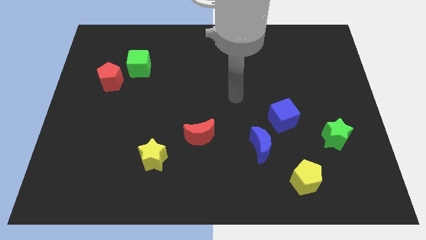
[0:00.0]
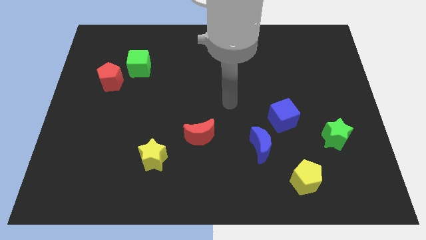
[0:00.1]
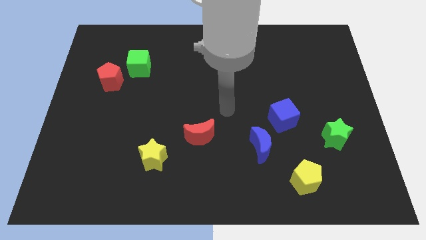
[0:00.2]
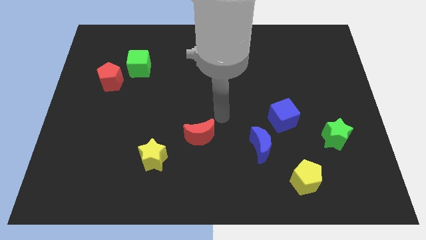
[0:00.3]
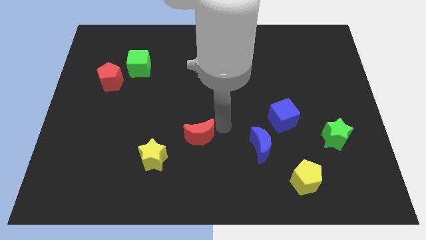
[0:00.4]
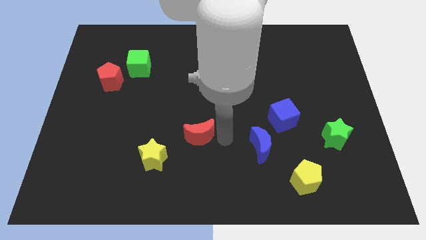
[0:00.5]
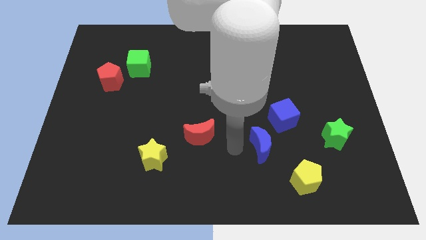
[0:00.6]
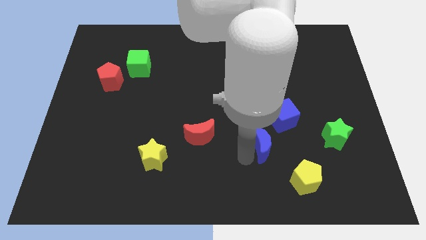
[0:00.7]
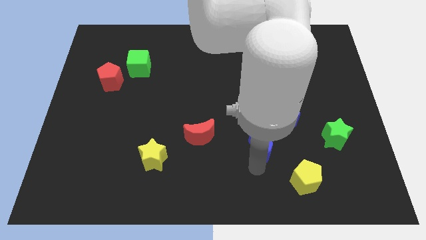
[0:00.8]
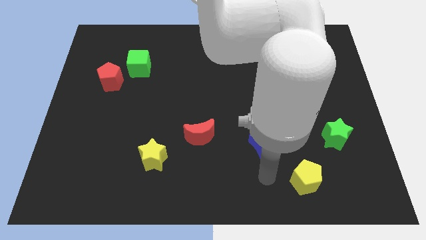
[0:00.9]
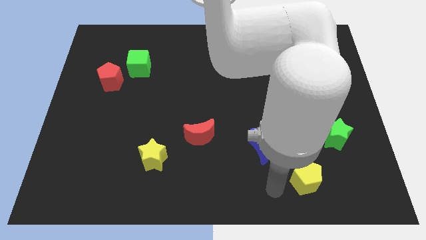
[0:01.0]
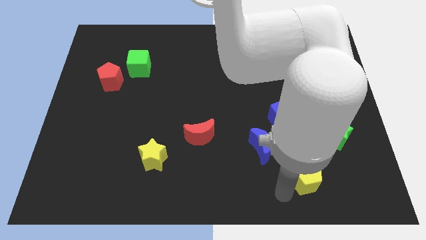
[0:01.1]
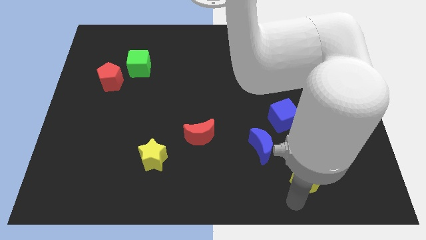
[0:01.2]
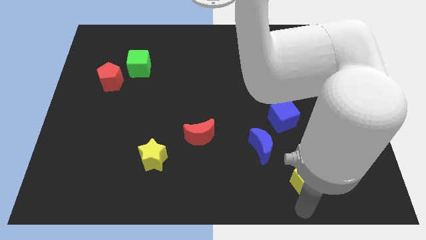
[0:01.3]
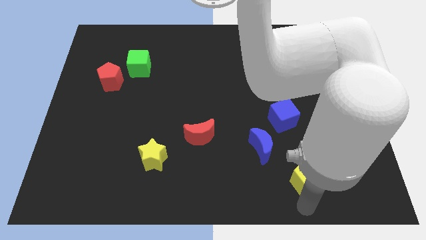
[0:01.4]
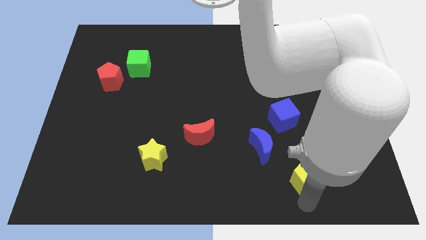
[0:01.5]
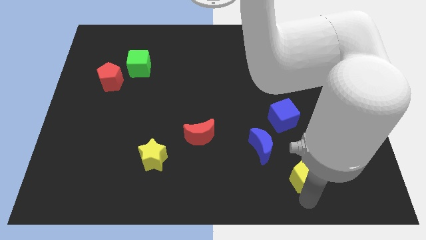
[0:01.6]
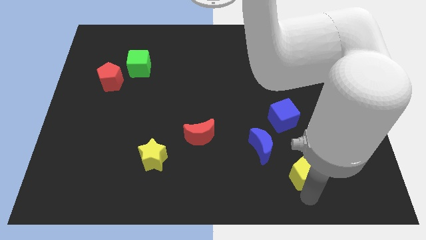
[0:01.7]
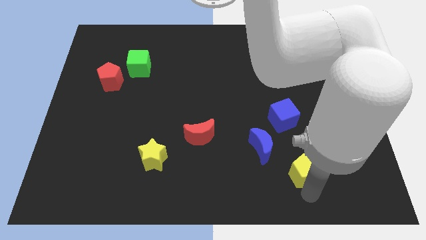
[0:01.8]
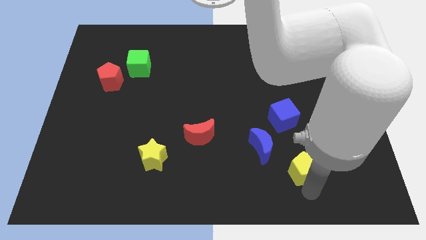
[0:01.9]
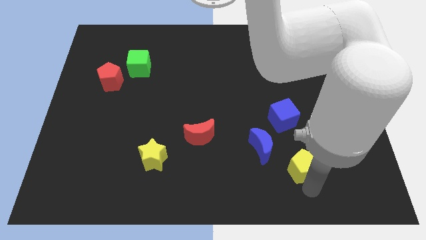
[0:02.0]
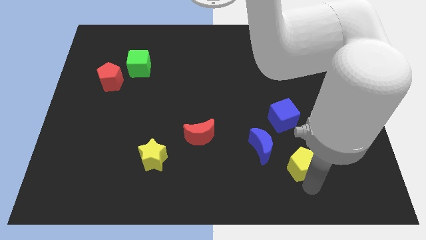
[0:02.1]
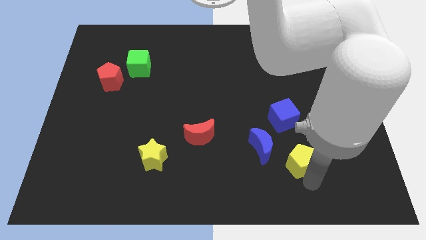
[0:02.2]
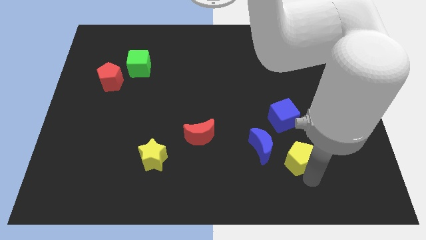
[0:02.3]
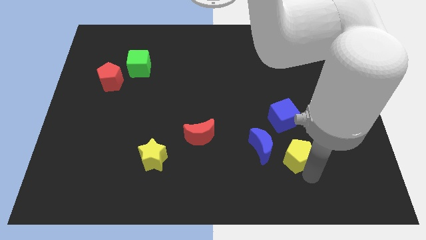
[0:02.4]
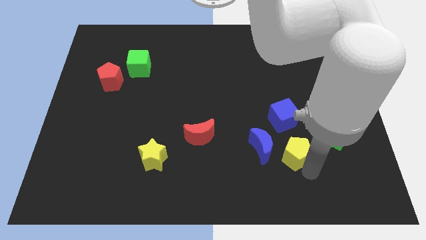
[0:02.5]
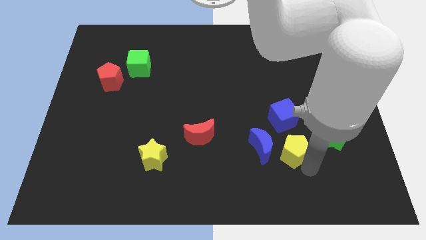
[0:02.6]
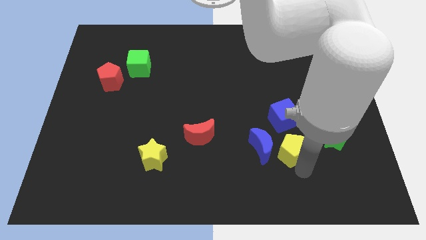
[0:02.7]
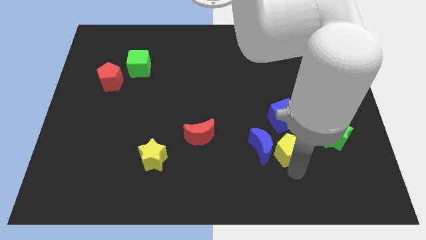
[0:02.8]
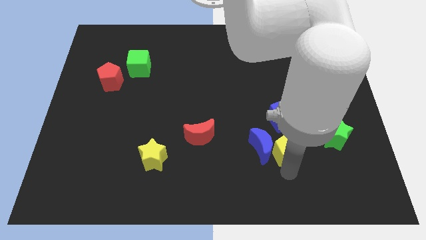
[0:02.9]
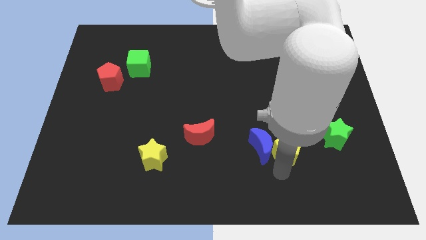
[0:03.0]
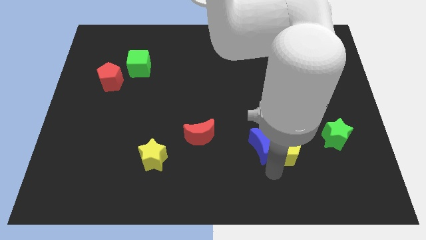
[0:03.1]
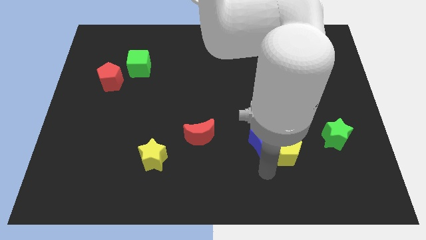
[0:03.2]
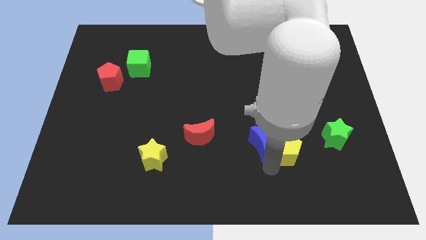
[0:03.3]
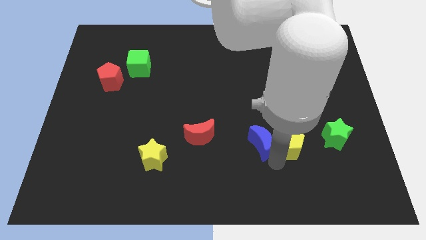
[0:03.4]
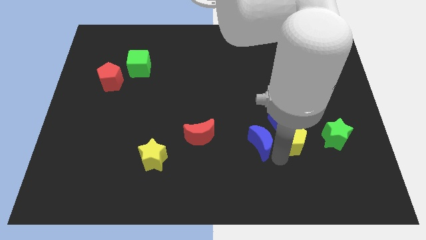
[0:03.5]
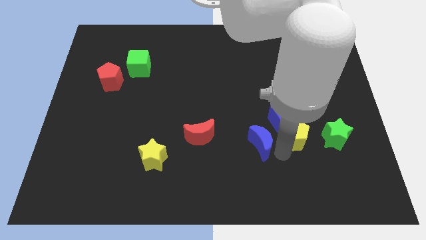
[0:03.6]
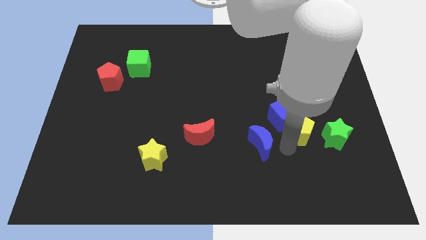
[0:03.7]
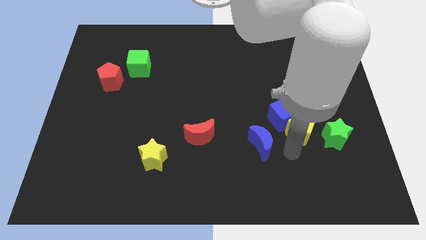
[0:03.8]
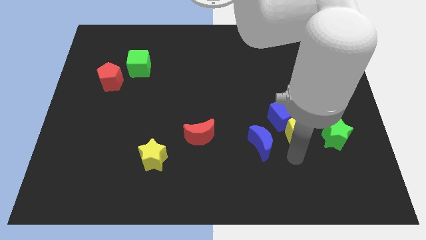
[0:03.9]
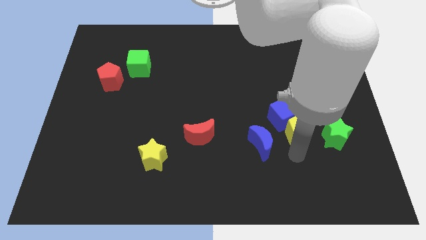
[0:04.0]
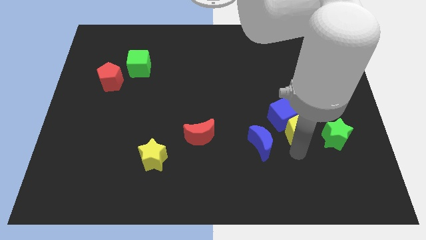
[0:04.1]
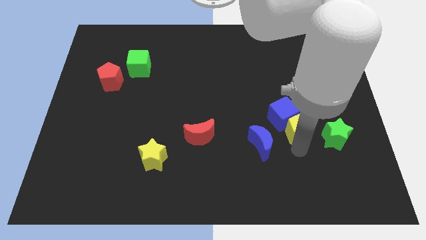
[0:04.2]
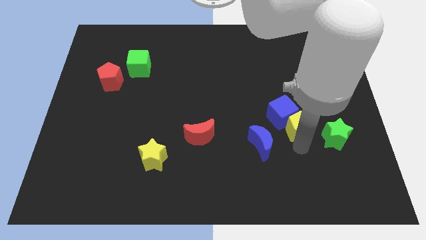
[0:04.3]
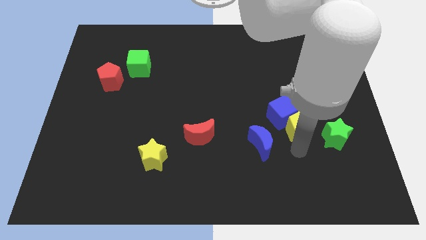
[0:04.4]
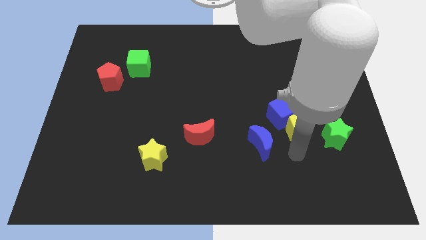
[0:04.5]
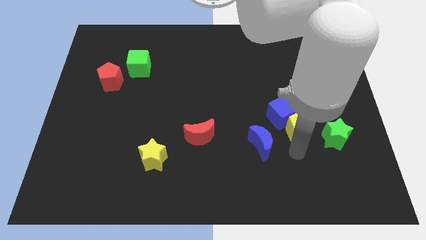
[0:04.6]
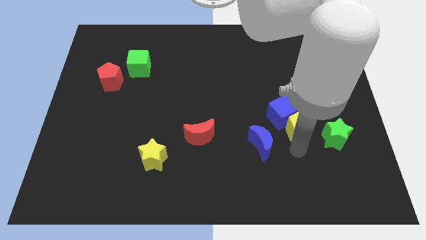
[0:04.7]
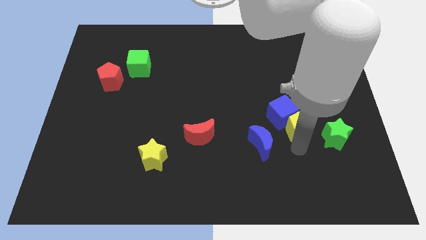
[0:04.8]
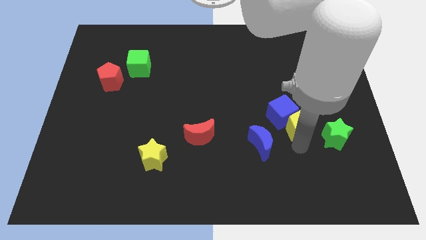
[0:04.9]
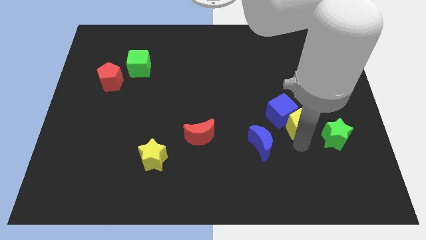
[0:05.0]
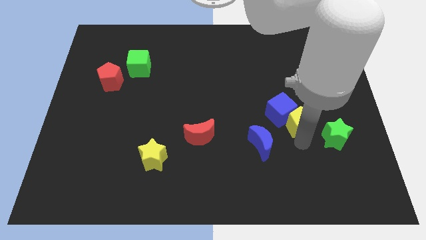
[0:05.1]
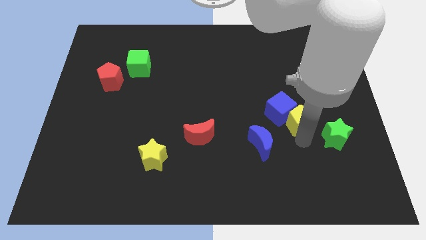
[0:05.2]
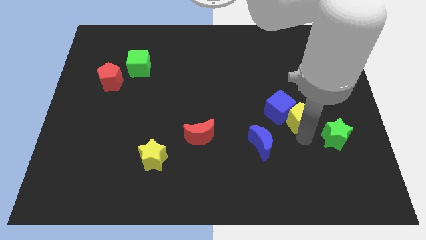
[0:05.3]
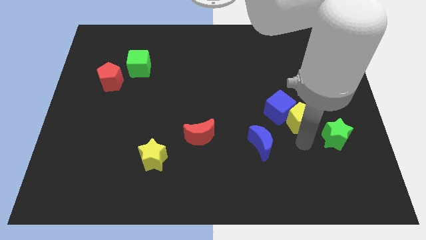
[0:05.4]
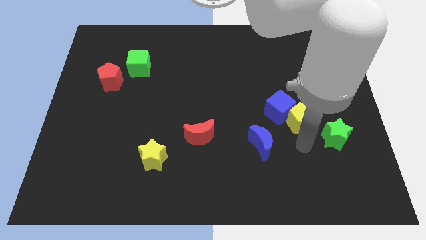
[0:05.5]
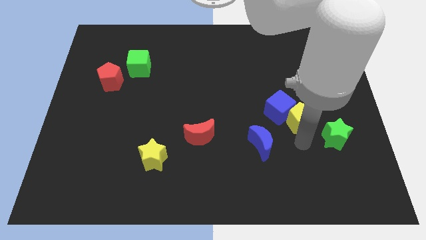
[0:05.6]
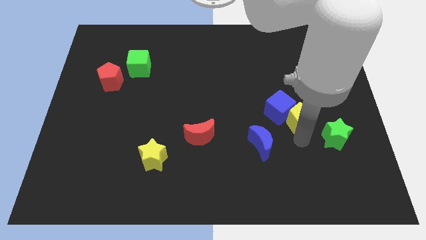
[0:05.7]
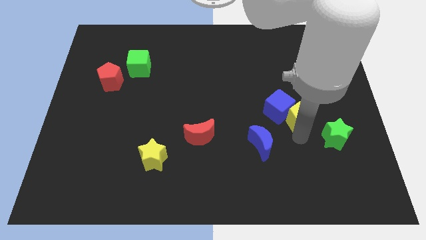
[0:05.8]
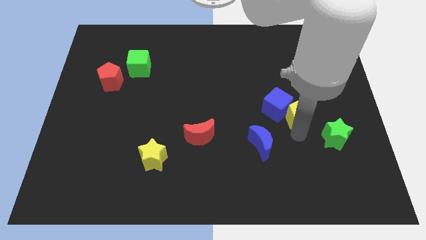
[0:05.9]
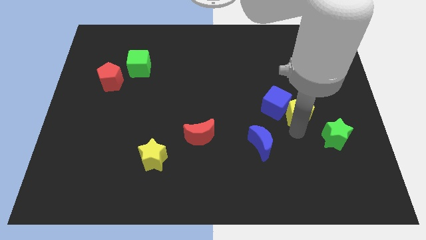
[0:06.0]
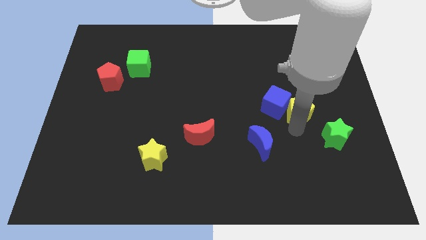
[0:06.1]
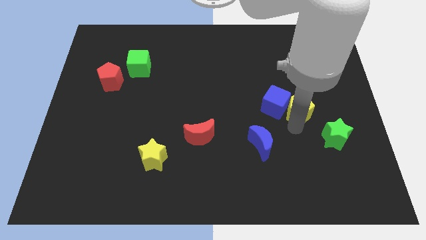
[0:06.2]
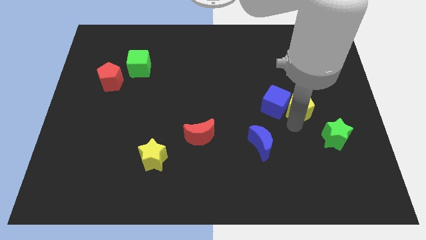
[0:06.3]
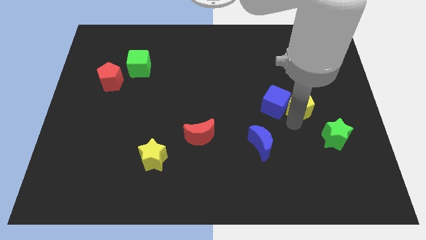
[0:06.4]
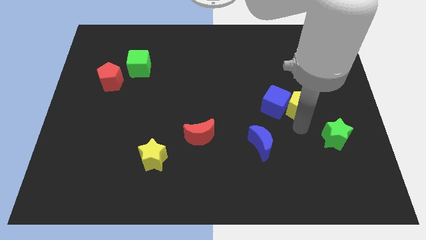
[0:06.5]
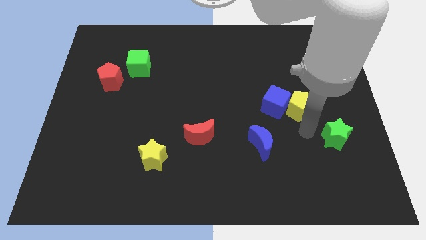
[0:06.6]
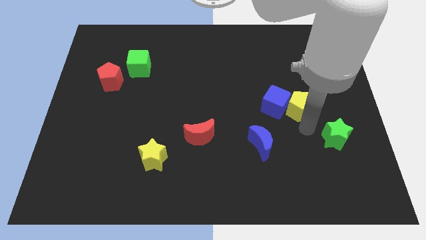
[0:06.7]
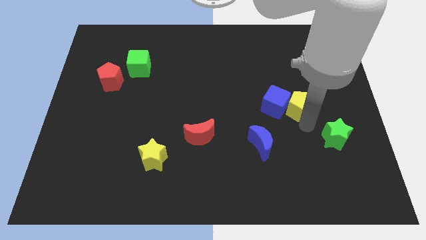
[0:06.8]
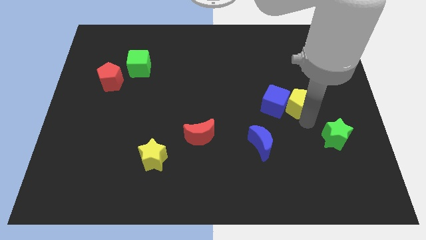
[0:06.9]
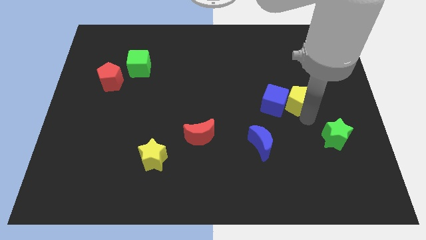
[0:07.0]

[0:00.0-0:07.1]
move the yellow pentagon up

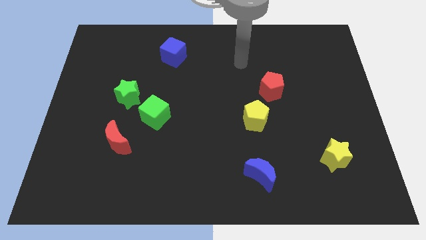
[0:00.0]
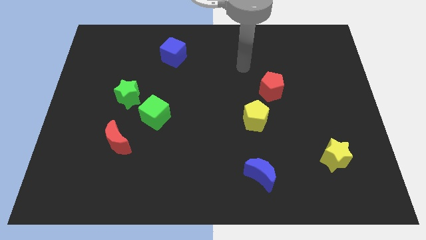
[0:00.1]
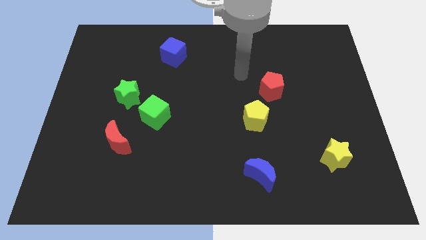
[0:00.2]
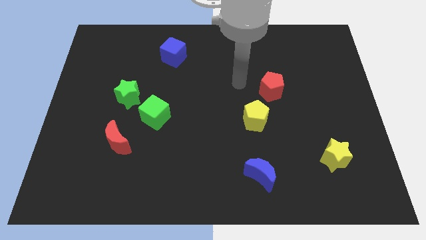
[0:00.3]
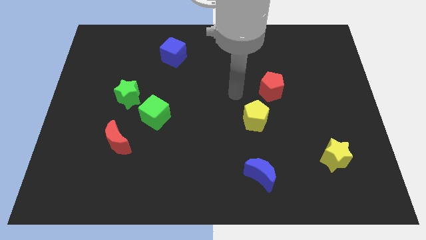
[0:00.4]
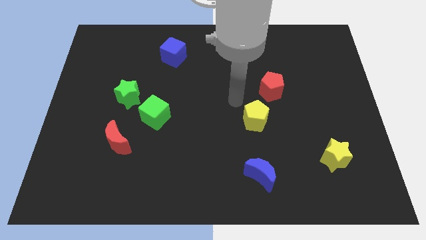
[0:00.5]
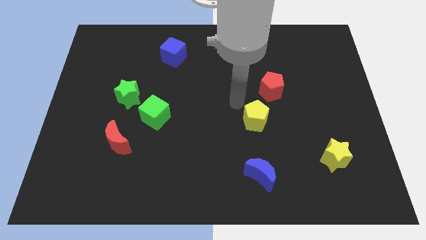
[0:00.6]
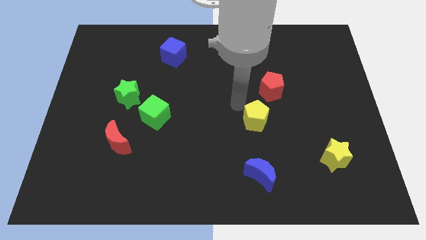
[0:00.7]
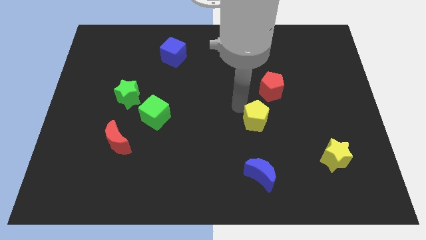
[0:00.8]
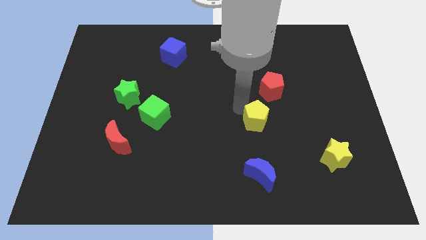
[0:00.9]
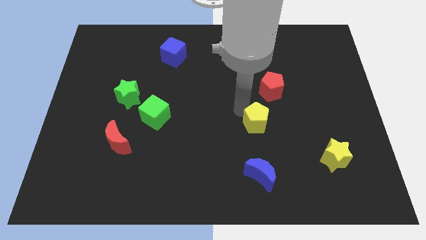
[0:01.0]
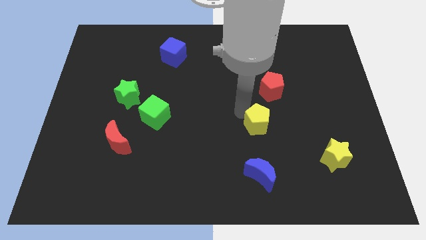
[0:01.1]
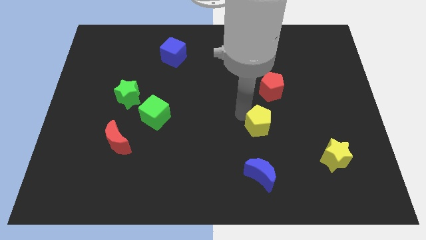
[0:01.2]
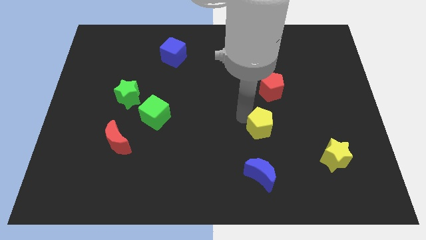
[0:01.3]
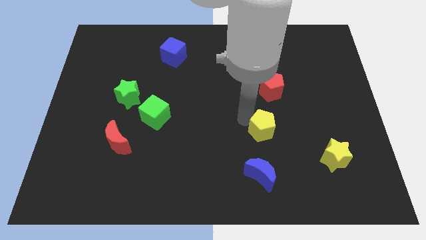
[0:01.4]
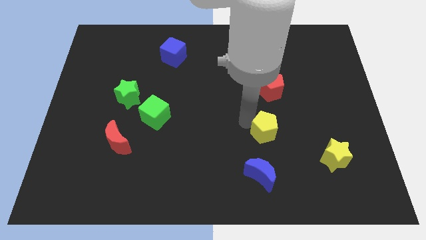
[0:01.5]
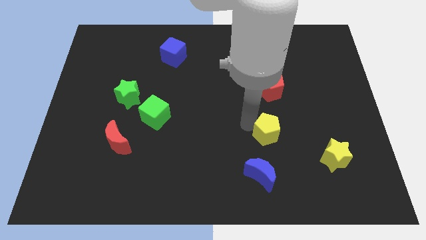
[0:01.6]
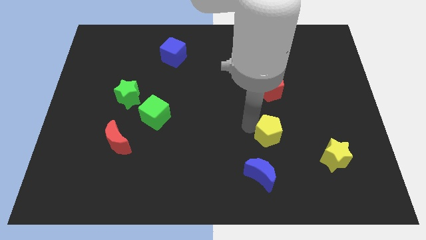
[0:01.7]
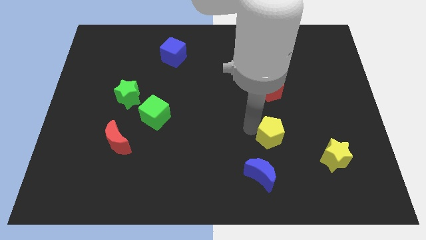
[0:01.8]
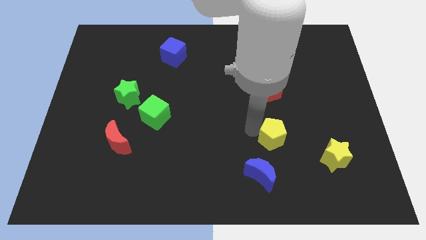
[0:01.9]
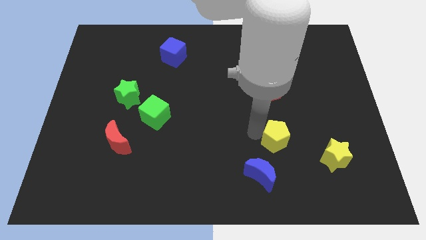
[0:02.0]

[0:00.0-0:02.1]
slightly move the yellow pentagon down and to the right
